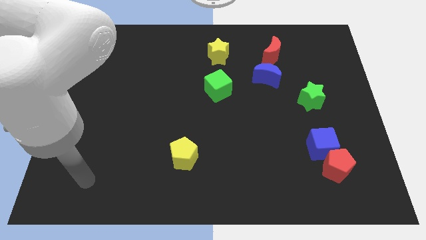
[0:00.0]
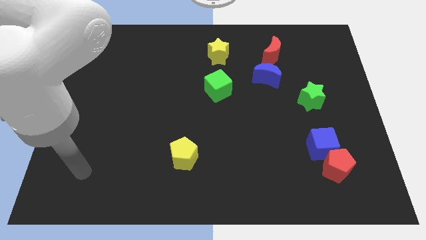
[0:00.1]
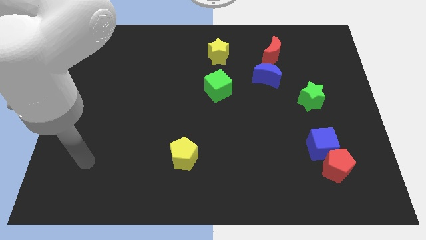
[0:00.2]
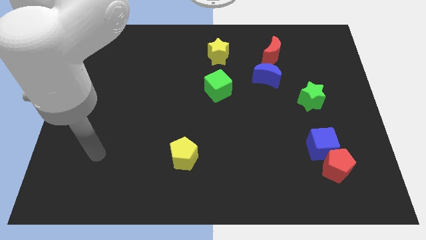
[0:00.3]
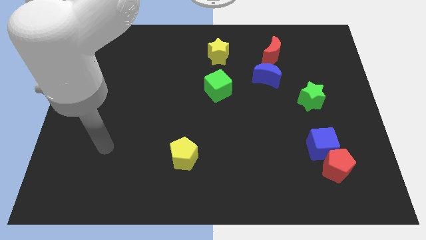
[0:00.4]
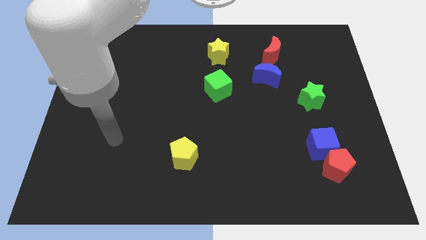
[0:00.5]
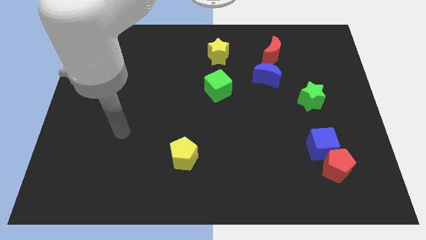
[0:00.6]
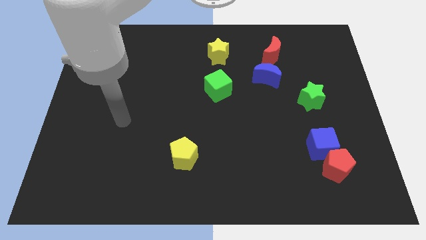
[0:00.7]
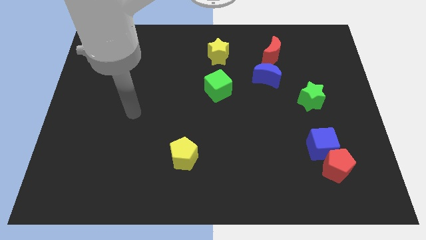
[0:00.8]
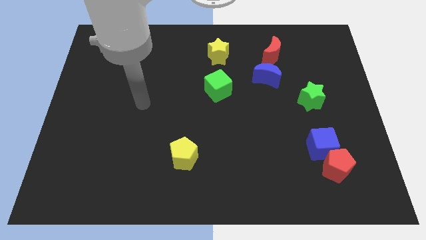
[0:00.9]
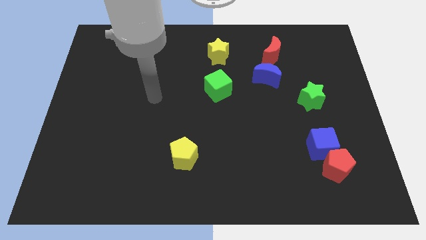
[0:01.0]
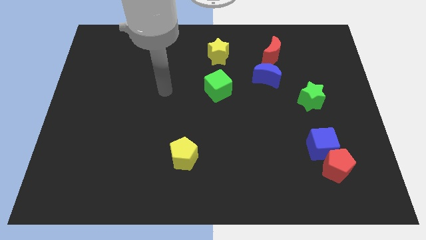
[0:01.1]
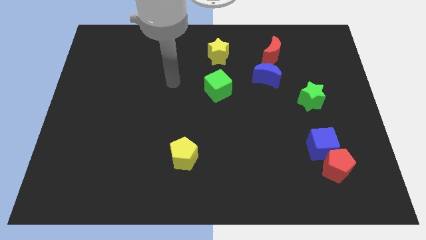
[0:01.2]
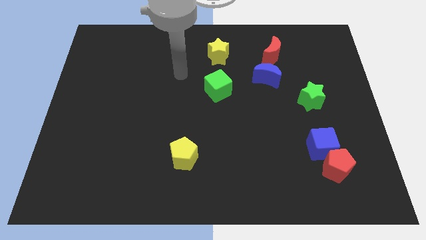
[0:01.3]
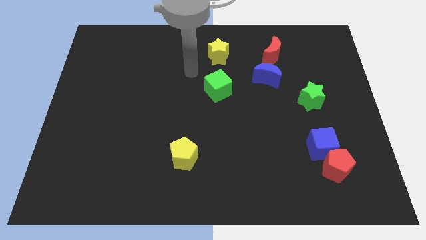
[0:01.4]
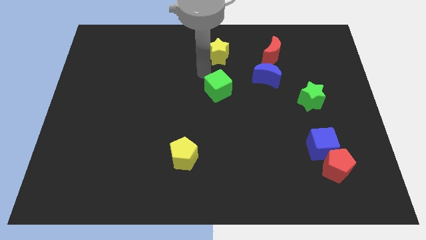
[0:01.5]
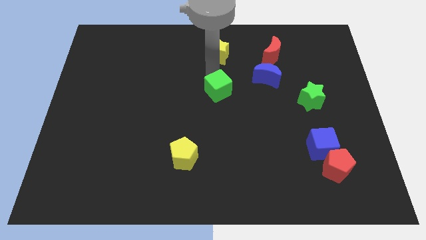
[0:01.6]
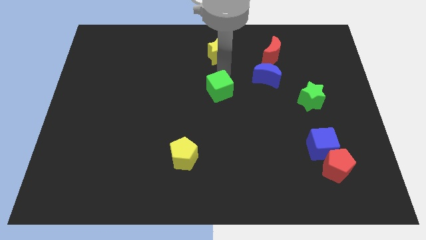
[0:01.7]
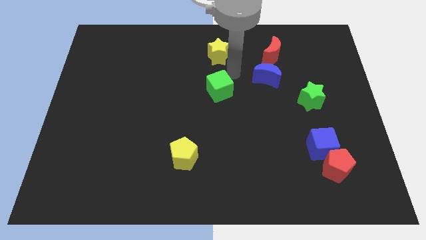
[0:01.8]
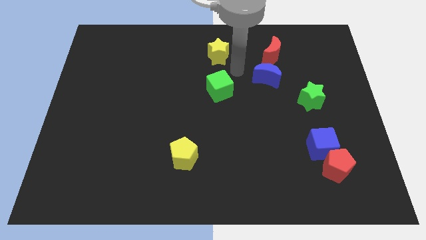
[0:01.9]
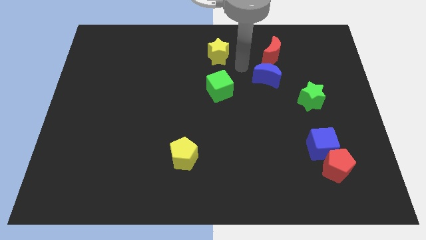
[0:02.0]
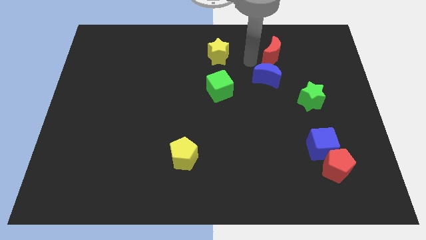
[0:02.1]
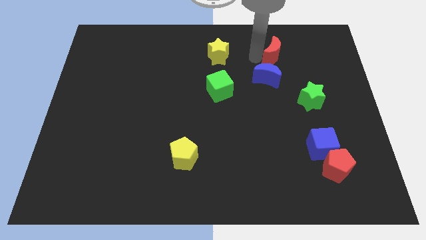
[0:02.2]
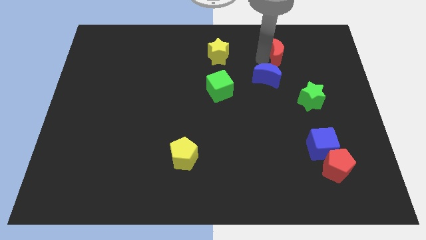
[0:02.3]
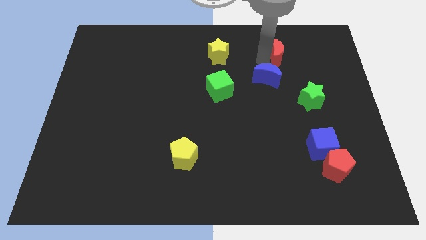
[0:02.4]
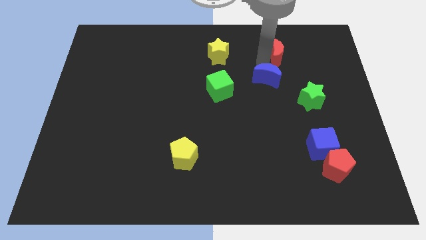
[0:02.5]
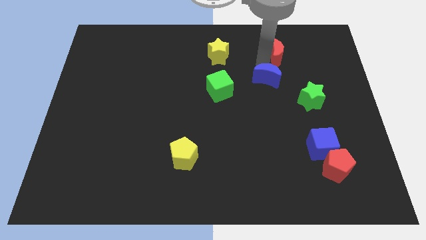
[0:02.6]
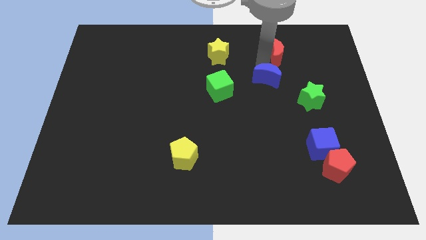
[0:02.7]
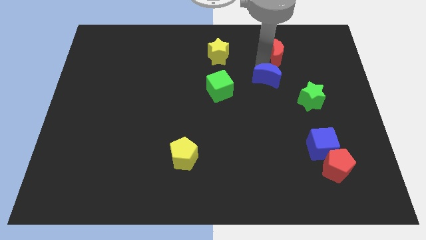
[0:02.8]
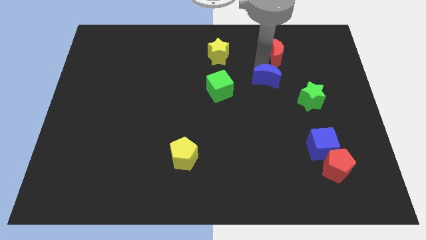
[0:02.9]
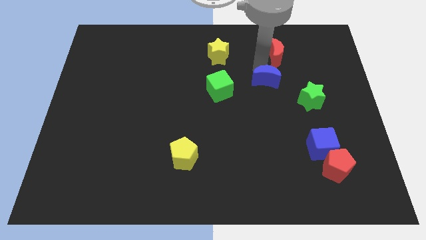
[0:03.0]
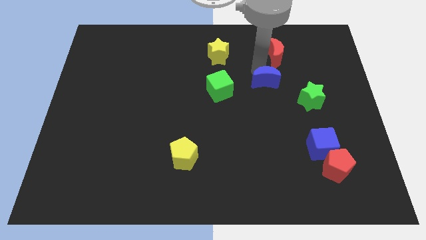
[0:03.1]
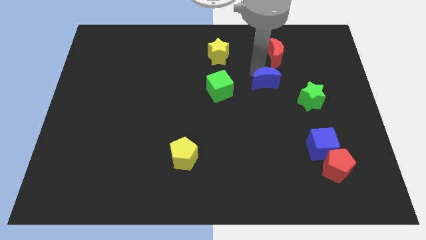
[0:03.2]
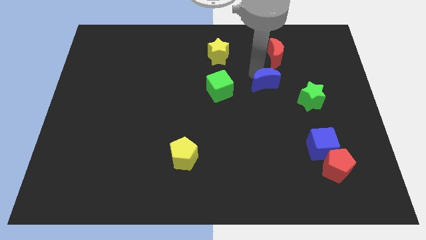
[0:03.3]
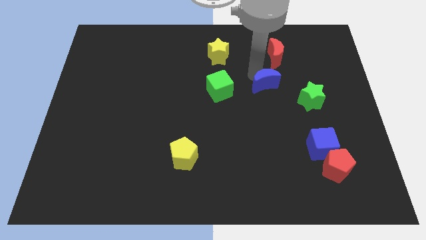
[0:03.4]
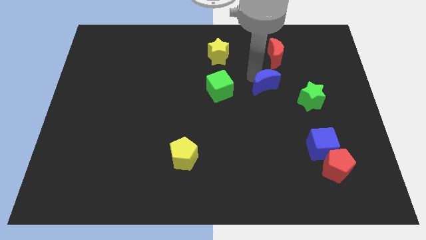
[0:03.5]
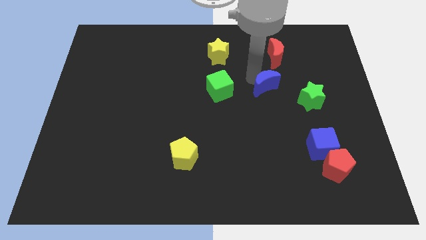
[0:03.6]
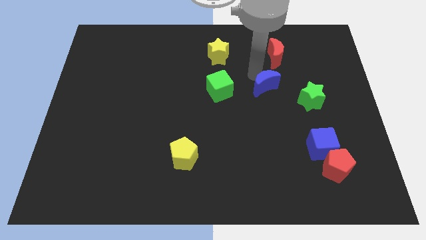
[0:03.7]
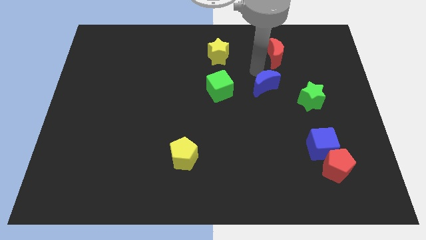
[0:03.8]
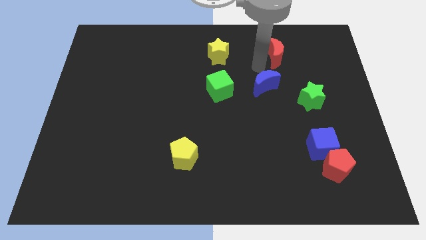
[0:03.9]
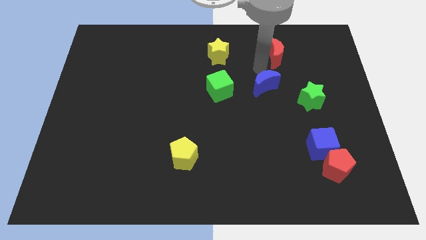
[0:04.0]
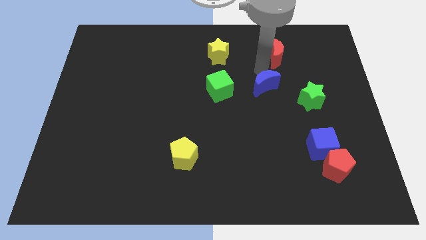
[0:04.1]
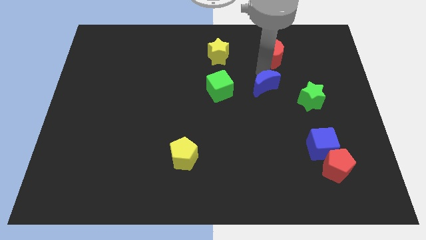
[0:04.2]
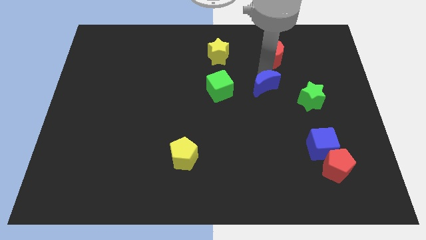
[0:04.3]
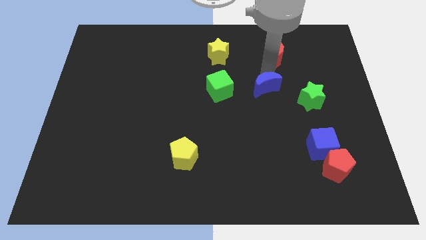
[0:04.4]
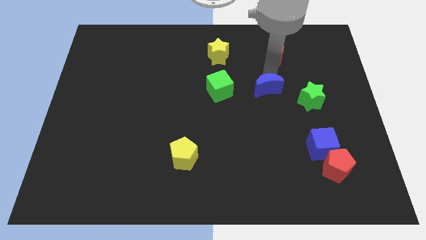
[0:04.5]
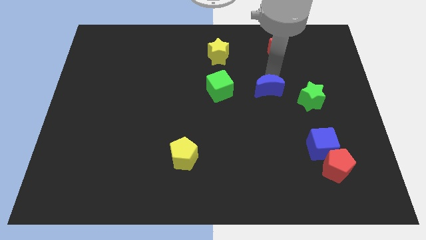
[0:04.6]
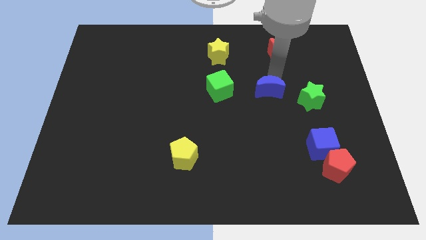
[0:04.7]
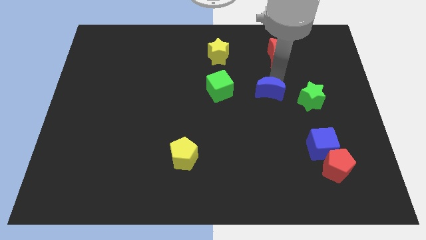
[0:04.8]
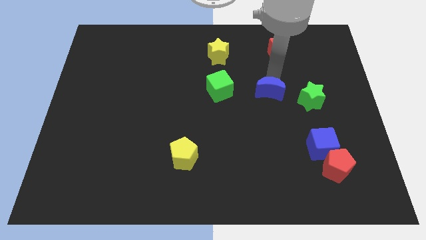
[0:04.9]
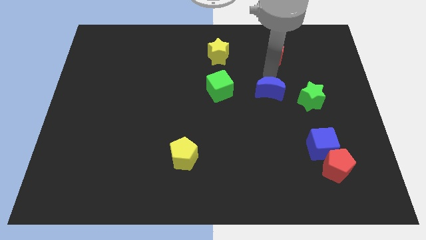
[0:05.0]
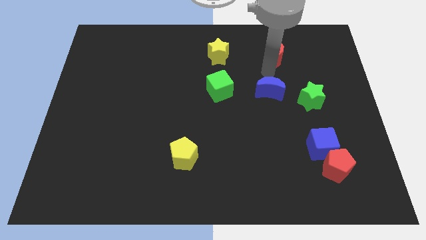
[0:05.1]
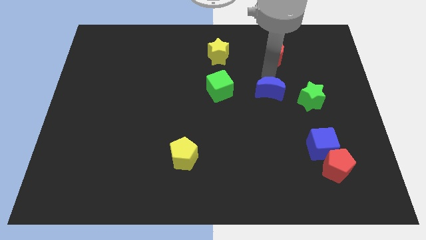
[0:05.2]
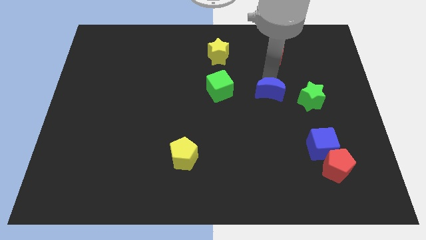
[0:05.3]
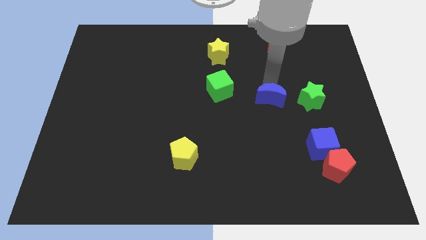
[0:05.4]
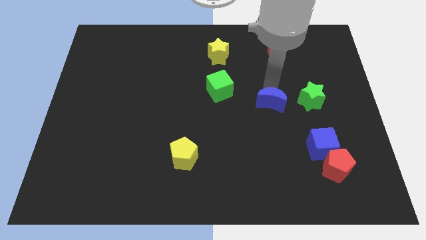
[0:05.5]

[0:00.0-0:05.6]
move the blue moon downwards slightly

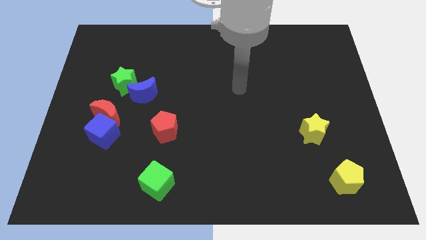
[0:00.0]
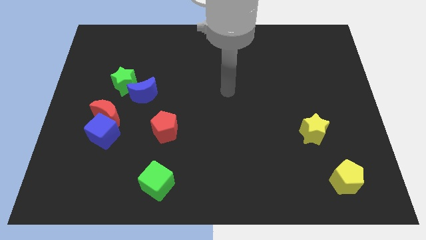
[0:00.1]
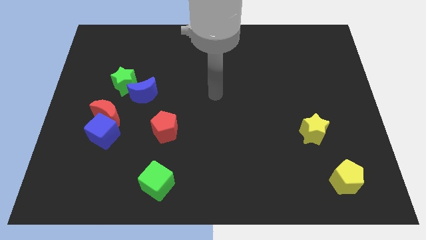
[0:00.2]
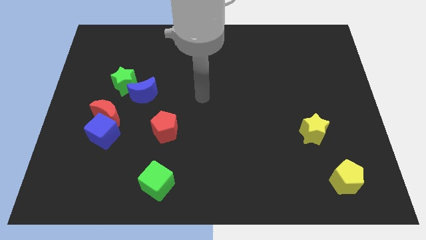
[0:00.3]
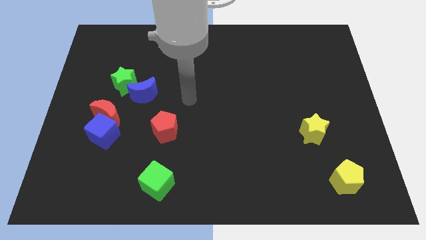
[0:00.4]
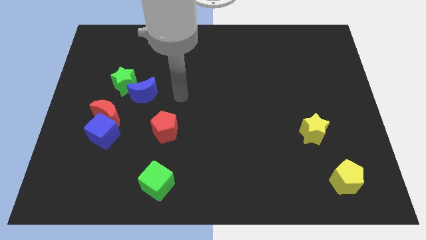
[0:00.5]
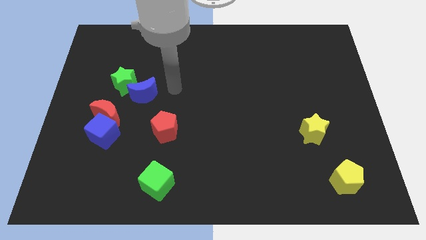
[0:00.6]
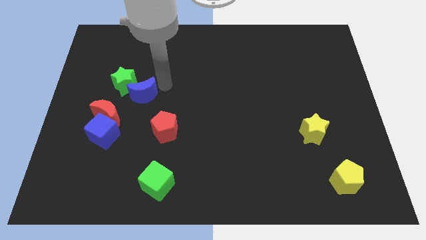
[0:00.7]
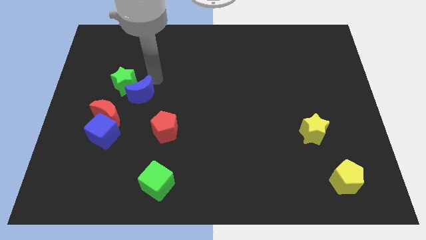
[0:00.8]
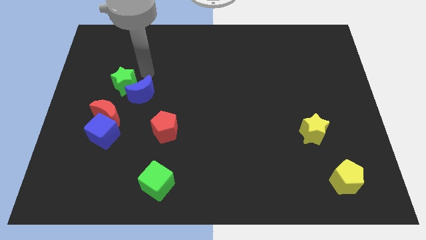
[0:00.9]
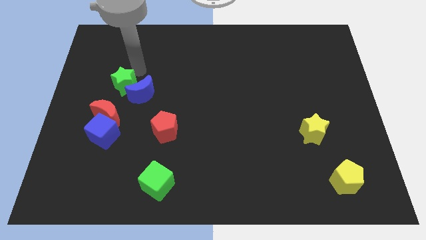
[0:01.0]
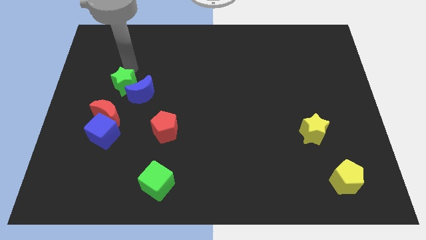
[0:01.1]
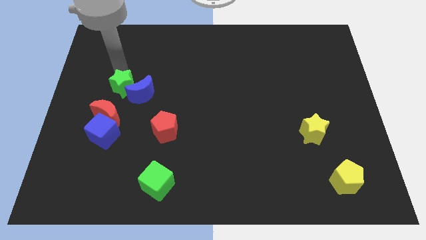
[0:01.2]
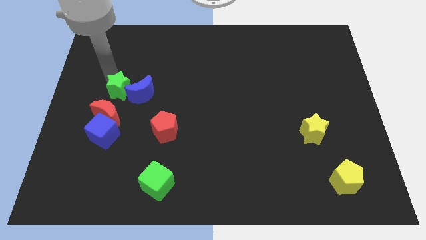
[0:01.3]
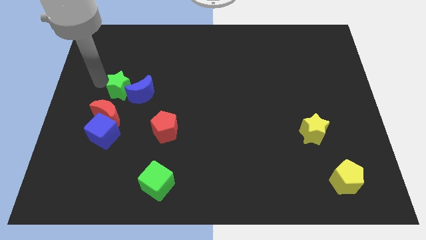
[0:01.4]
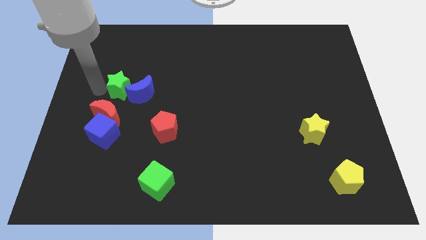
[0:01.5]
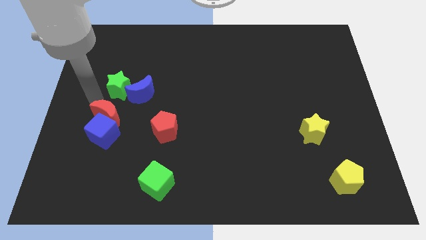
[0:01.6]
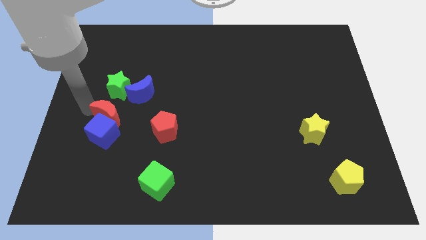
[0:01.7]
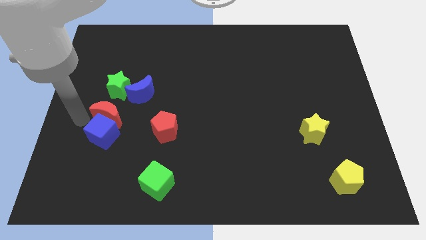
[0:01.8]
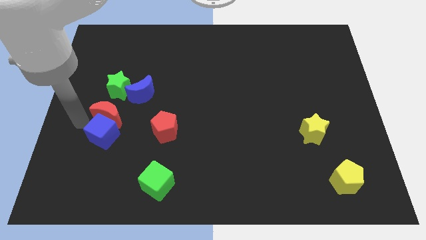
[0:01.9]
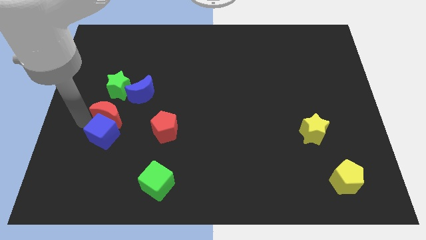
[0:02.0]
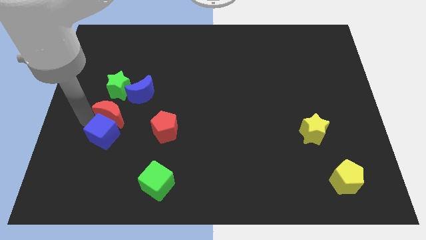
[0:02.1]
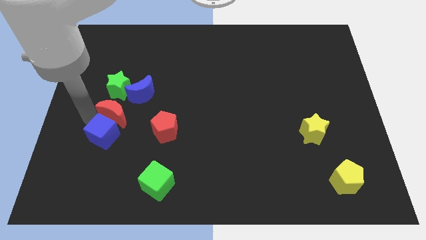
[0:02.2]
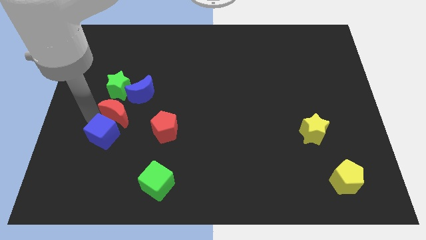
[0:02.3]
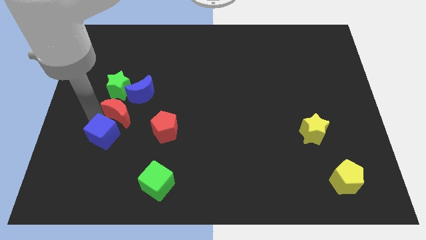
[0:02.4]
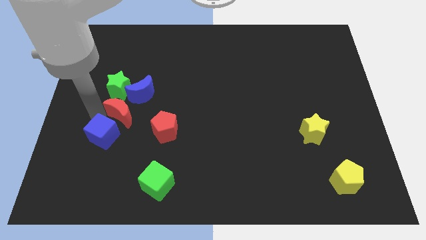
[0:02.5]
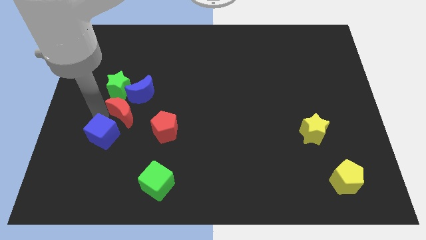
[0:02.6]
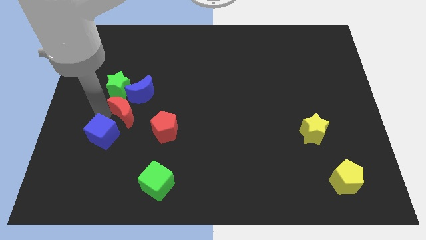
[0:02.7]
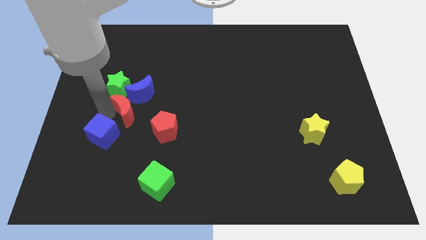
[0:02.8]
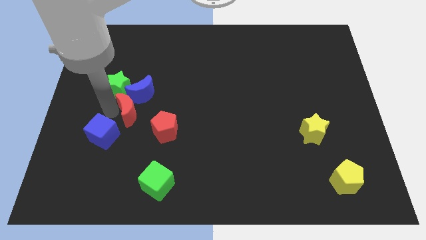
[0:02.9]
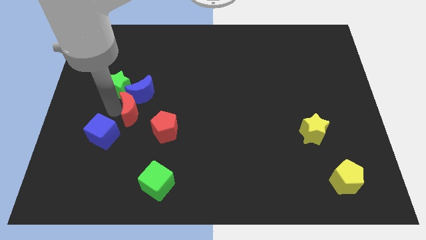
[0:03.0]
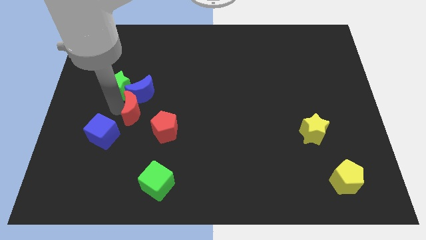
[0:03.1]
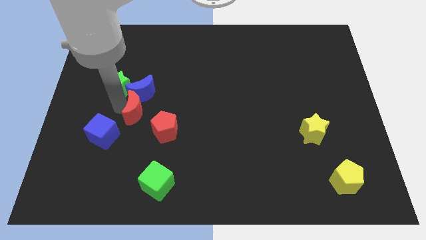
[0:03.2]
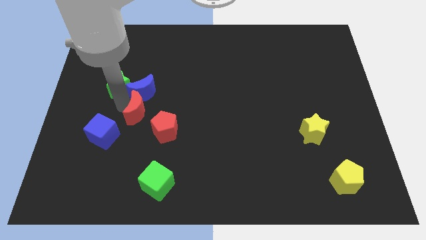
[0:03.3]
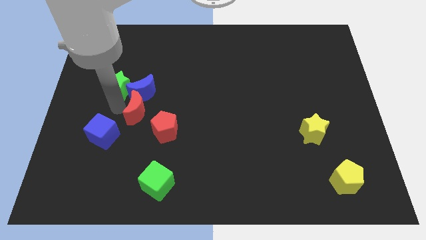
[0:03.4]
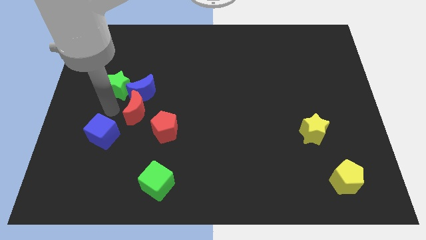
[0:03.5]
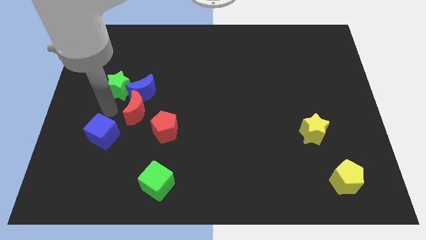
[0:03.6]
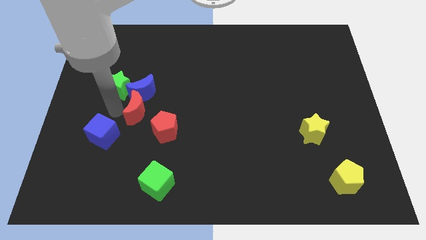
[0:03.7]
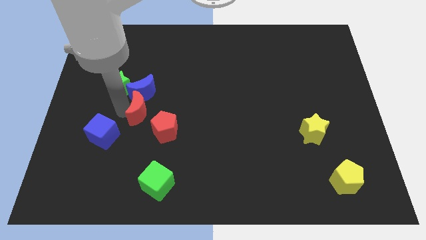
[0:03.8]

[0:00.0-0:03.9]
slightly move the red moon right
